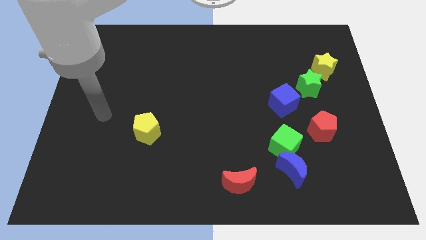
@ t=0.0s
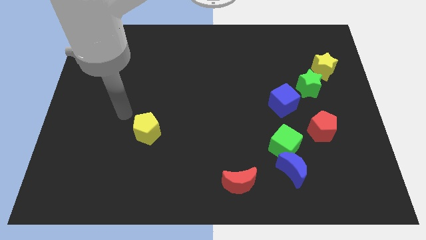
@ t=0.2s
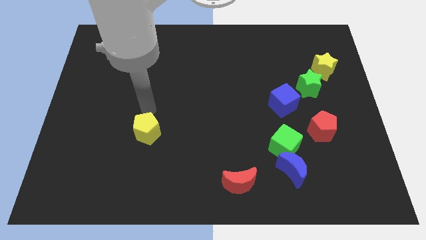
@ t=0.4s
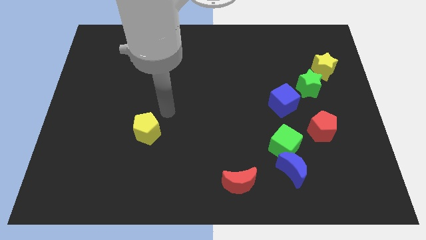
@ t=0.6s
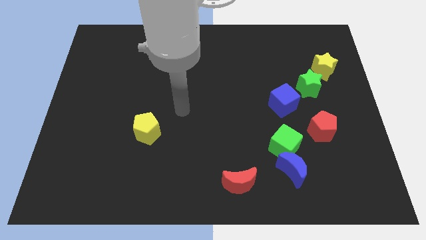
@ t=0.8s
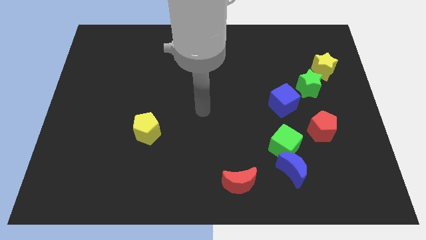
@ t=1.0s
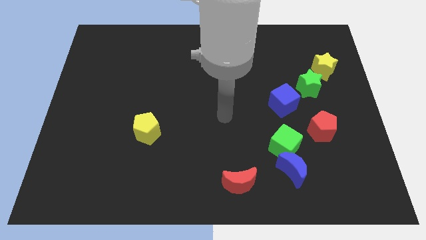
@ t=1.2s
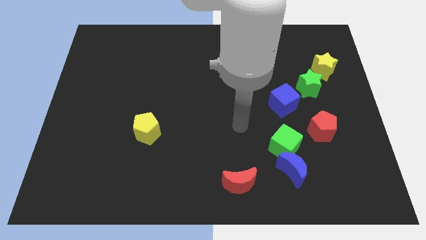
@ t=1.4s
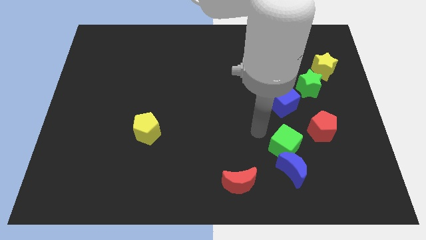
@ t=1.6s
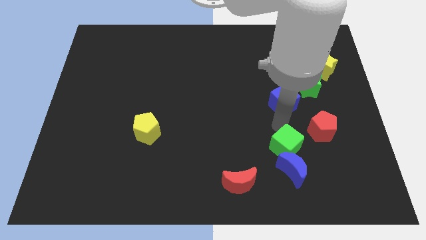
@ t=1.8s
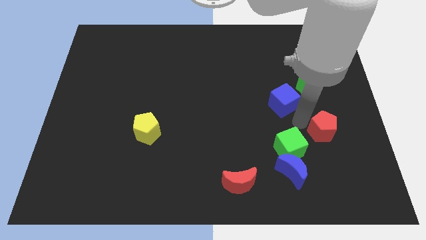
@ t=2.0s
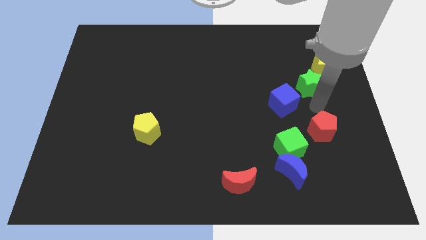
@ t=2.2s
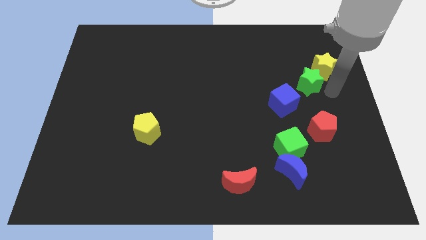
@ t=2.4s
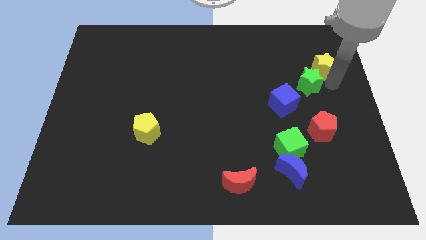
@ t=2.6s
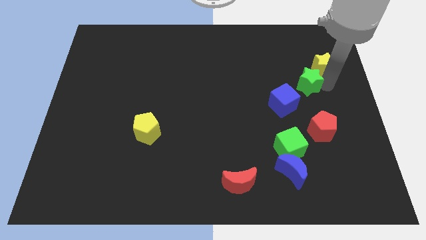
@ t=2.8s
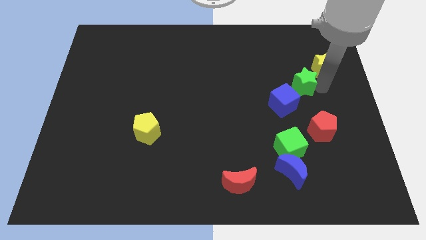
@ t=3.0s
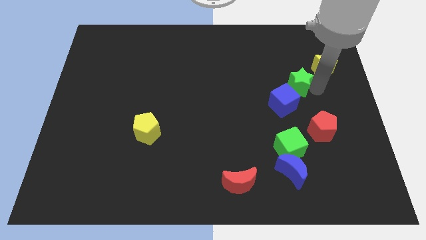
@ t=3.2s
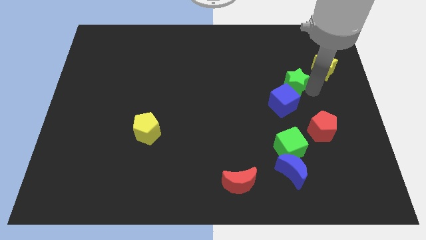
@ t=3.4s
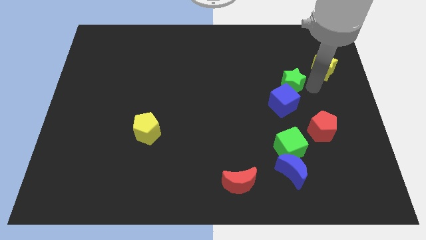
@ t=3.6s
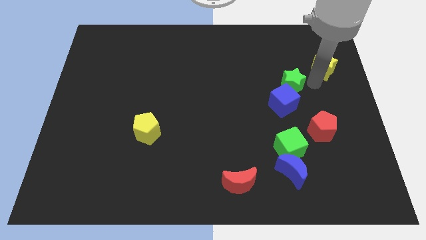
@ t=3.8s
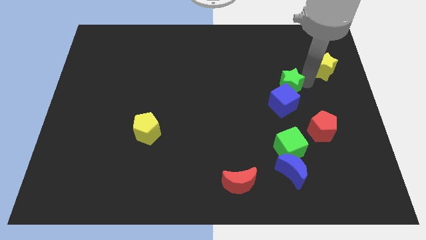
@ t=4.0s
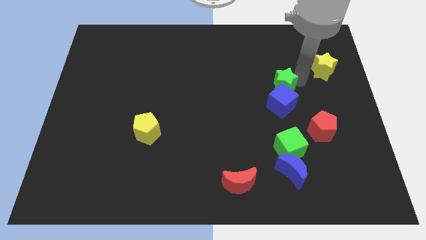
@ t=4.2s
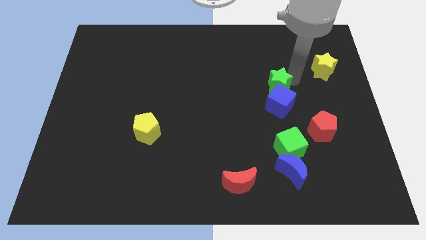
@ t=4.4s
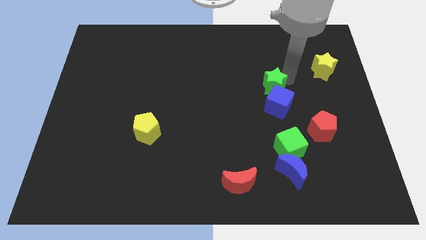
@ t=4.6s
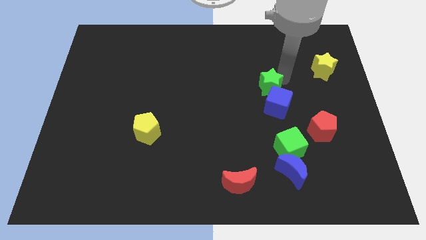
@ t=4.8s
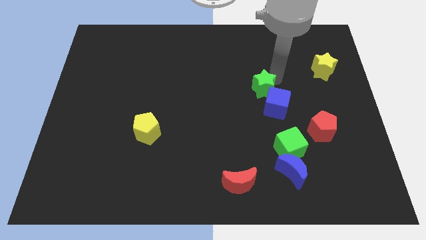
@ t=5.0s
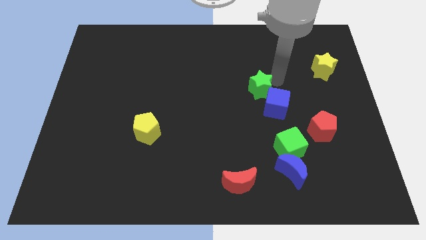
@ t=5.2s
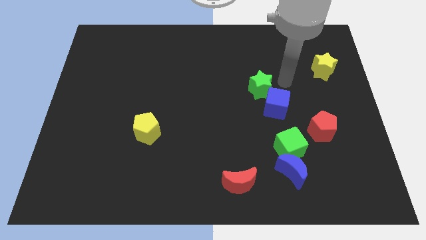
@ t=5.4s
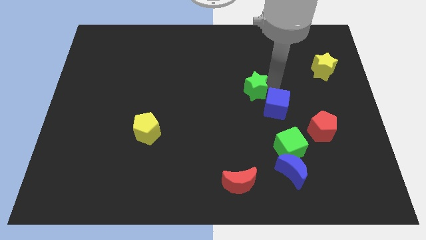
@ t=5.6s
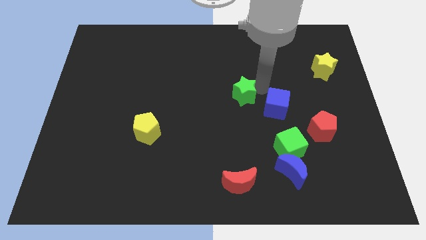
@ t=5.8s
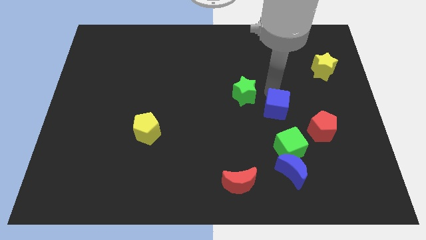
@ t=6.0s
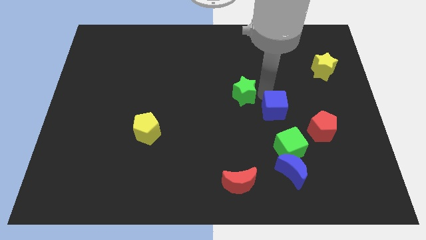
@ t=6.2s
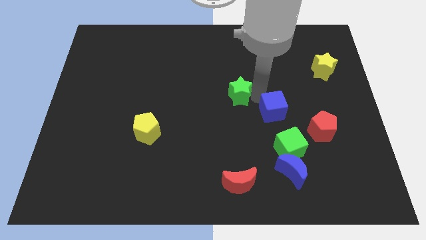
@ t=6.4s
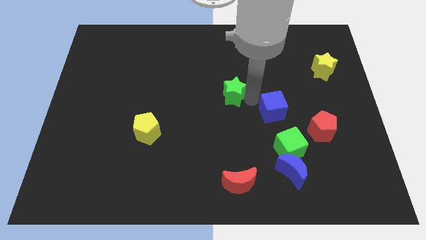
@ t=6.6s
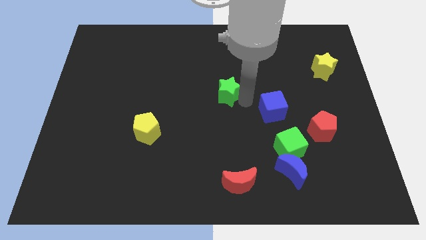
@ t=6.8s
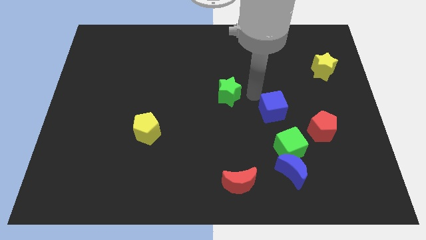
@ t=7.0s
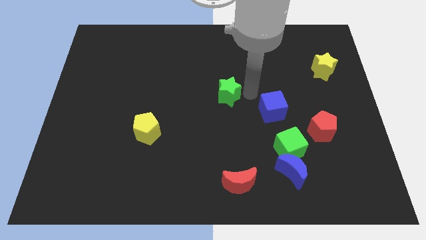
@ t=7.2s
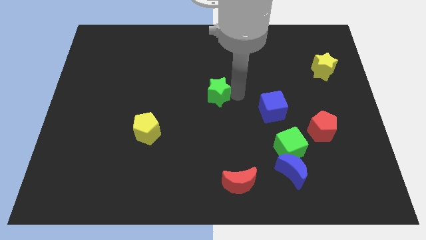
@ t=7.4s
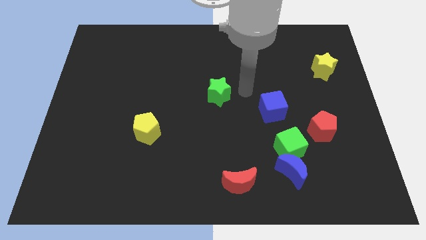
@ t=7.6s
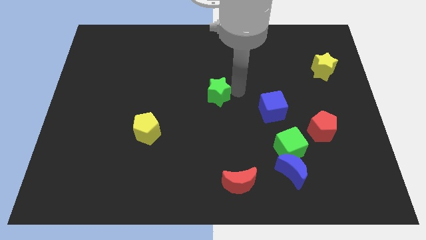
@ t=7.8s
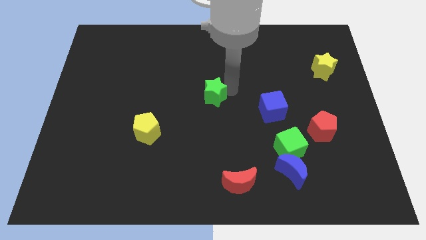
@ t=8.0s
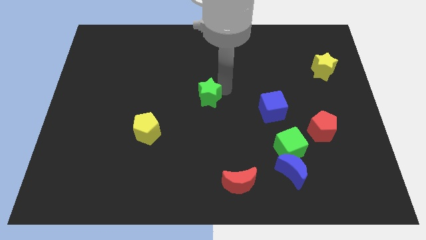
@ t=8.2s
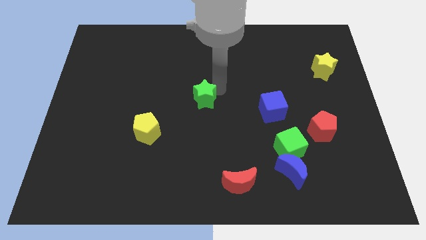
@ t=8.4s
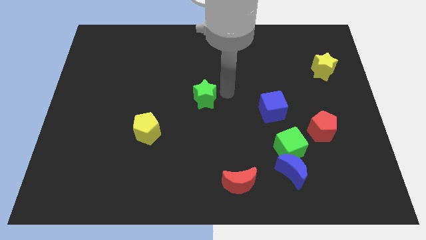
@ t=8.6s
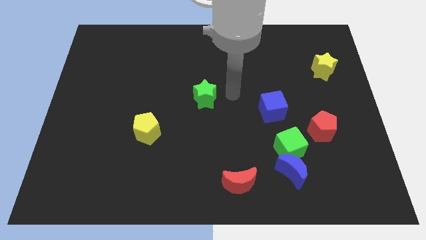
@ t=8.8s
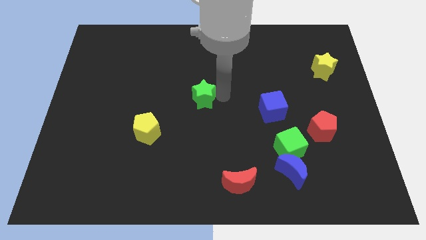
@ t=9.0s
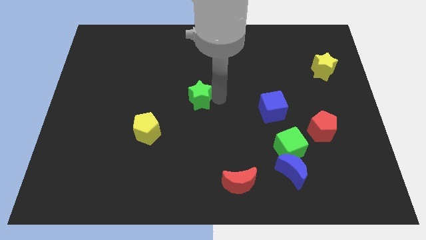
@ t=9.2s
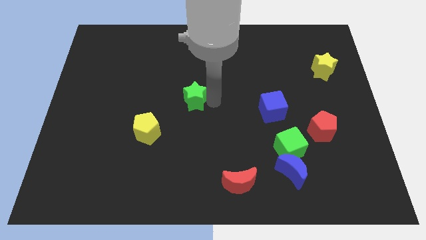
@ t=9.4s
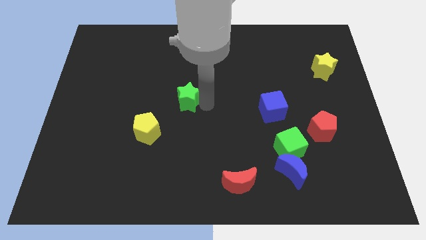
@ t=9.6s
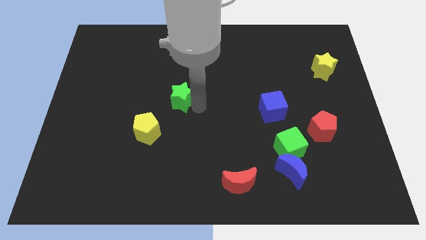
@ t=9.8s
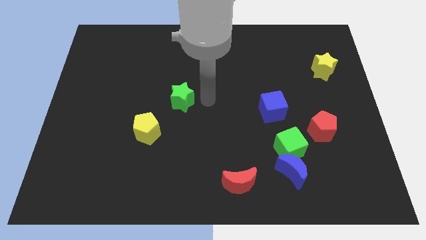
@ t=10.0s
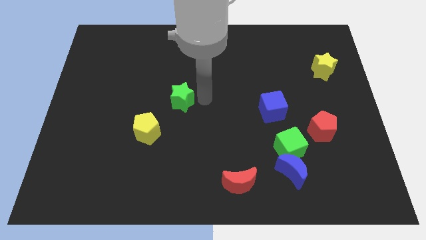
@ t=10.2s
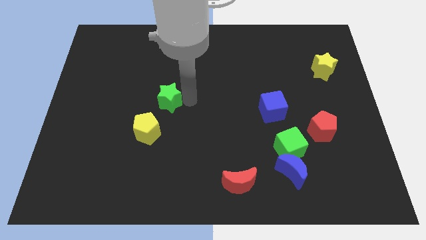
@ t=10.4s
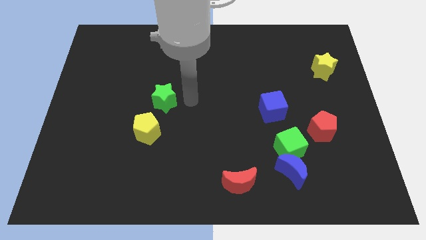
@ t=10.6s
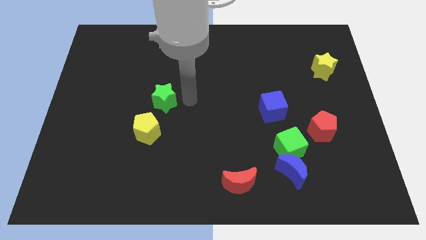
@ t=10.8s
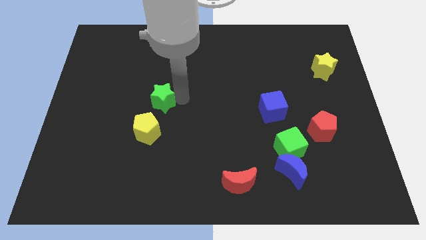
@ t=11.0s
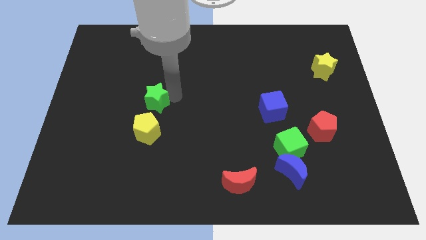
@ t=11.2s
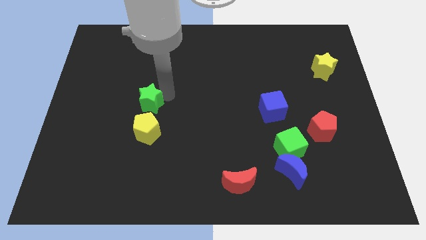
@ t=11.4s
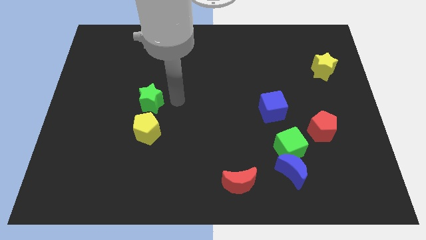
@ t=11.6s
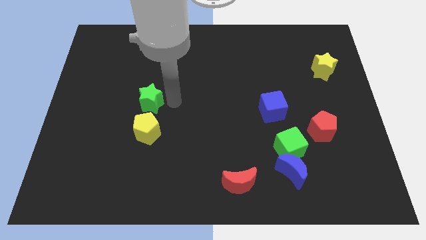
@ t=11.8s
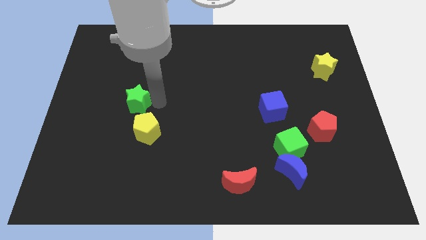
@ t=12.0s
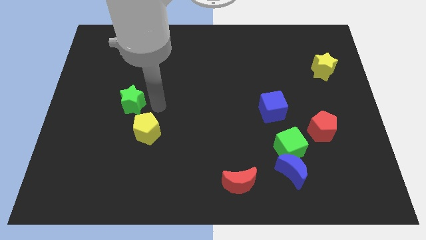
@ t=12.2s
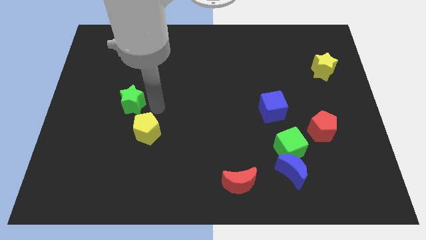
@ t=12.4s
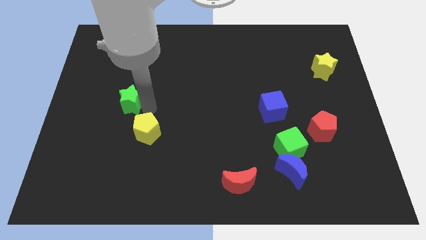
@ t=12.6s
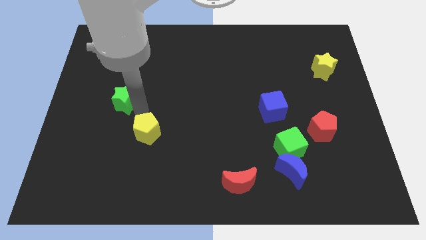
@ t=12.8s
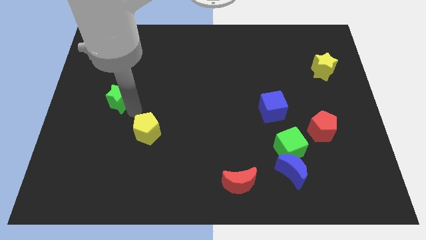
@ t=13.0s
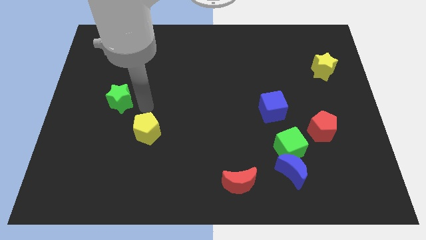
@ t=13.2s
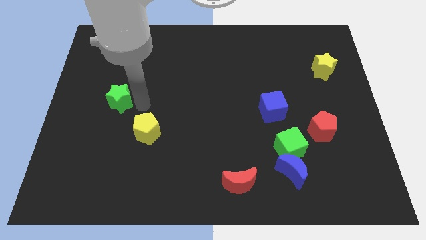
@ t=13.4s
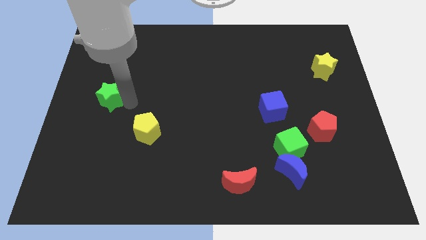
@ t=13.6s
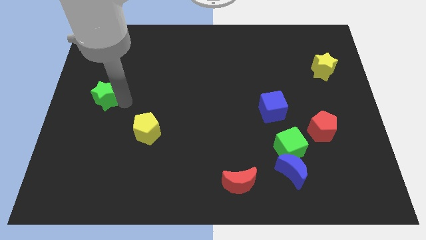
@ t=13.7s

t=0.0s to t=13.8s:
slide the green star to the left side
